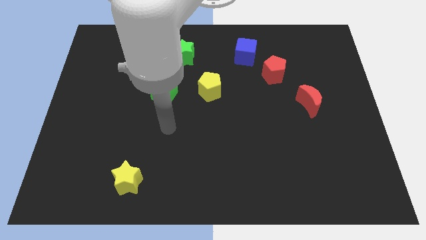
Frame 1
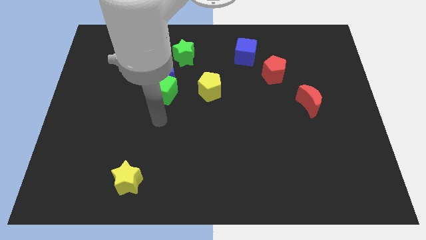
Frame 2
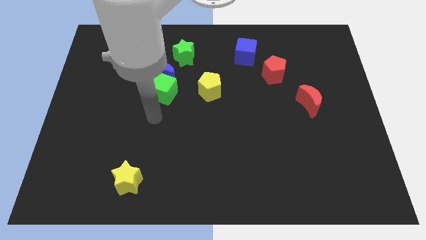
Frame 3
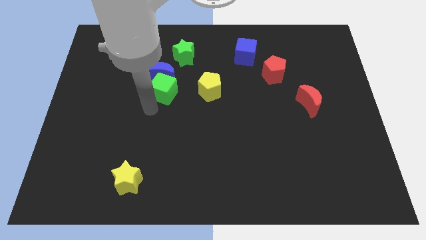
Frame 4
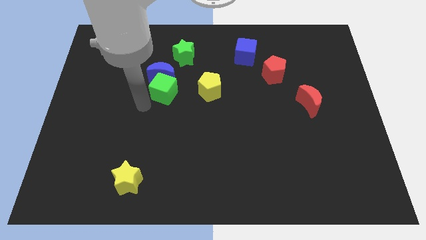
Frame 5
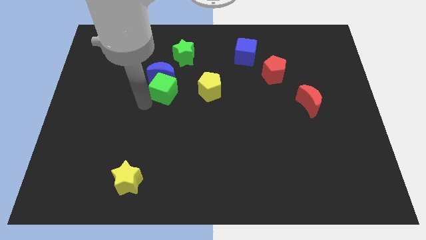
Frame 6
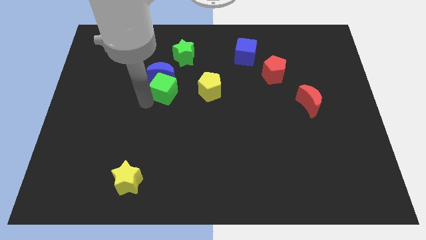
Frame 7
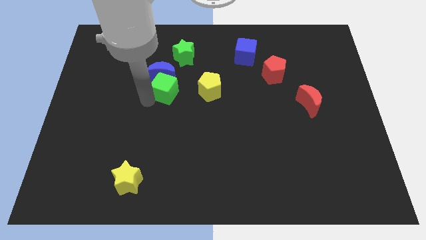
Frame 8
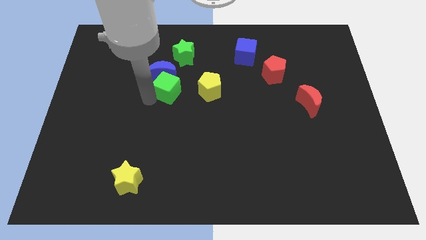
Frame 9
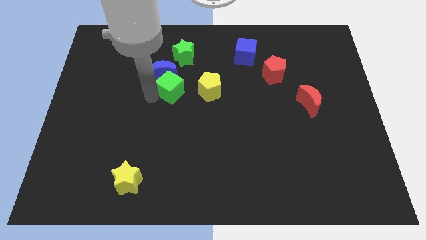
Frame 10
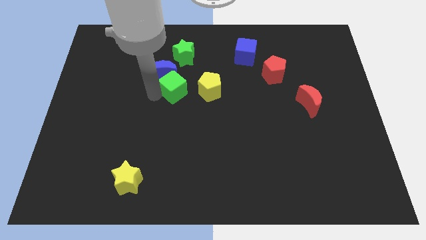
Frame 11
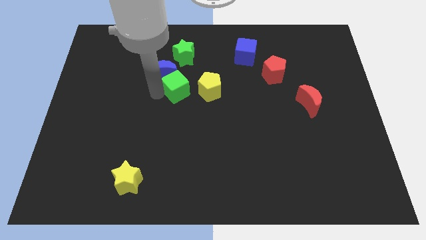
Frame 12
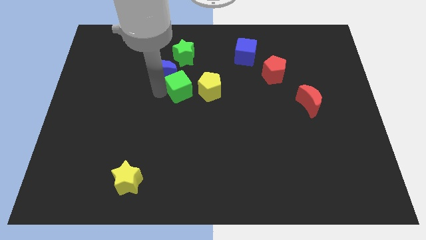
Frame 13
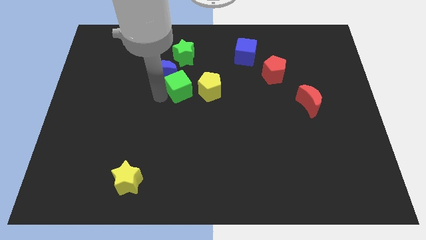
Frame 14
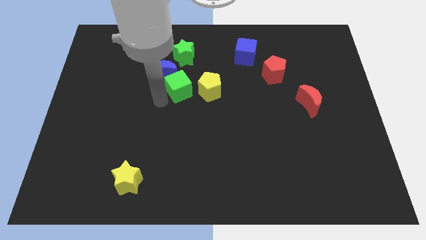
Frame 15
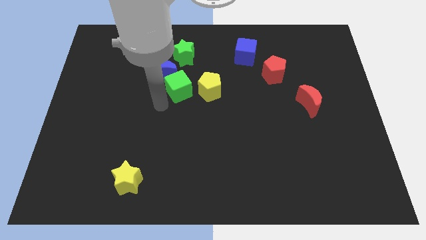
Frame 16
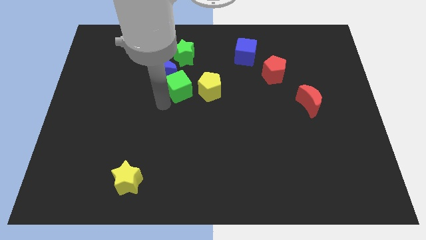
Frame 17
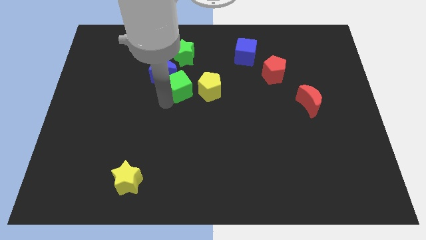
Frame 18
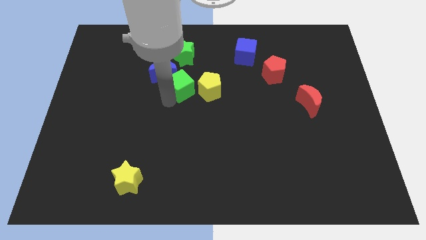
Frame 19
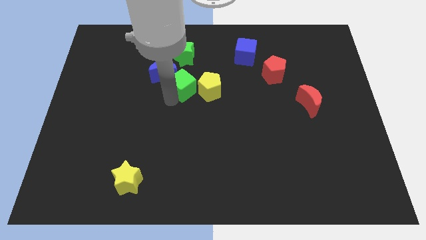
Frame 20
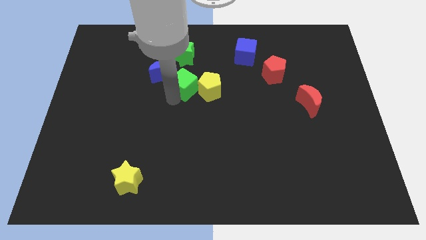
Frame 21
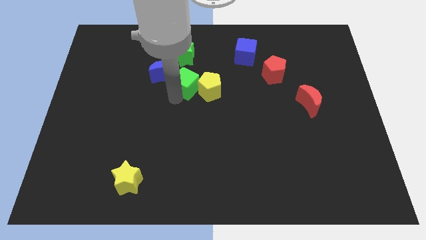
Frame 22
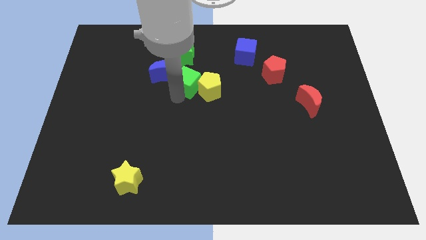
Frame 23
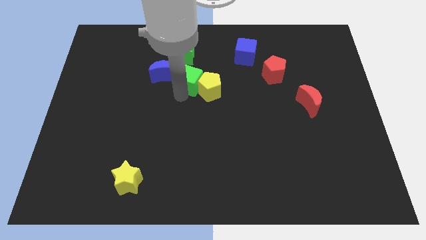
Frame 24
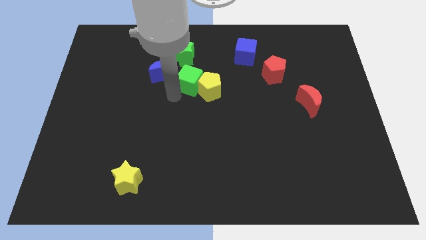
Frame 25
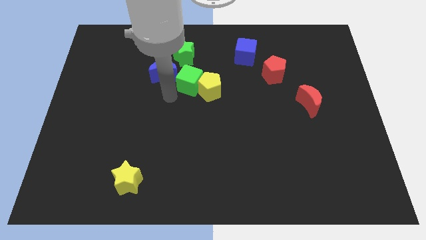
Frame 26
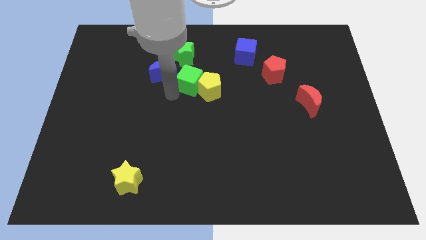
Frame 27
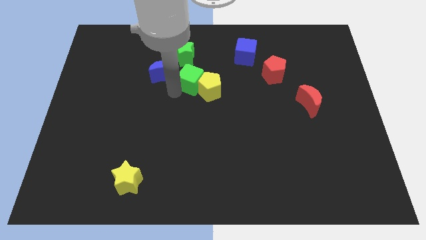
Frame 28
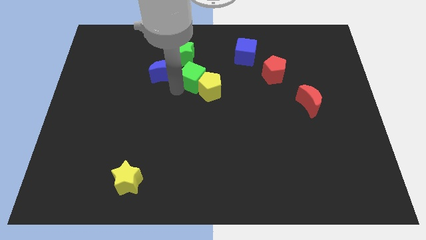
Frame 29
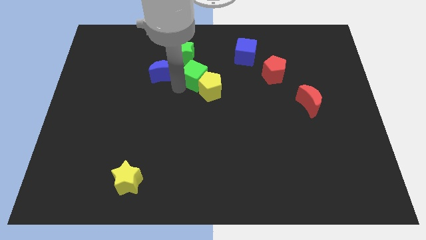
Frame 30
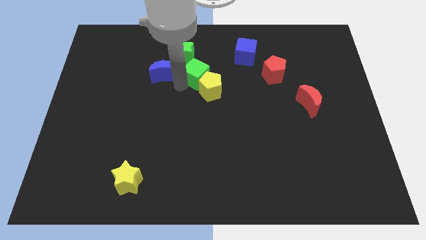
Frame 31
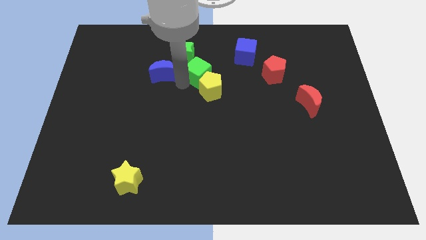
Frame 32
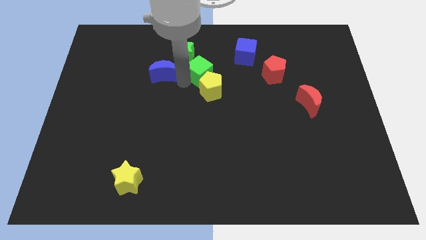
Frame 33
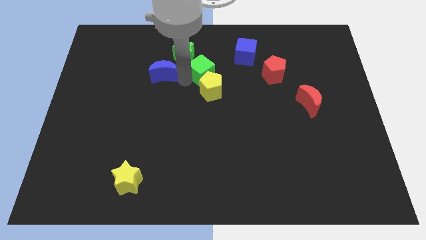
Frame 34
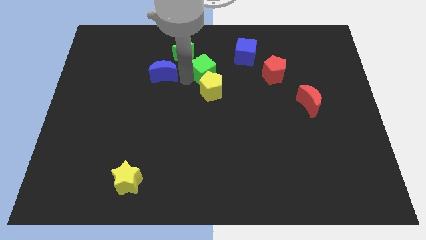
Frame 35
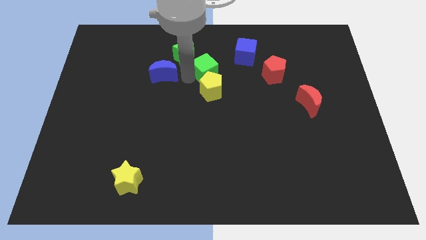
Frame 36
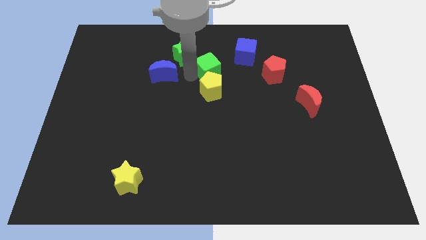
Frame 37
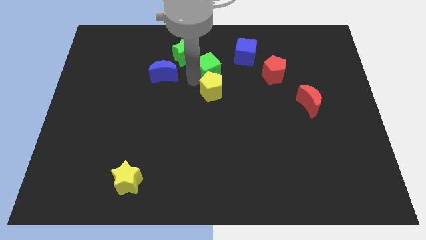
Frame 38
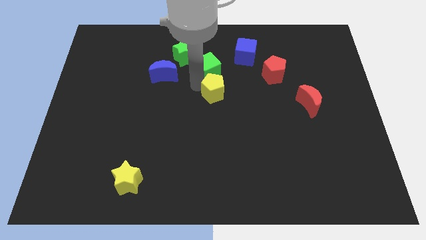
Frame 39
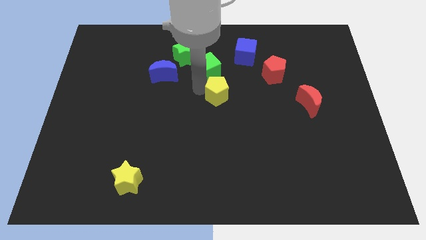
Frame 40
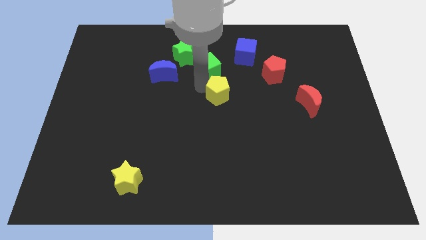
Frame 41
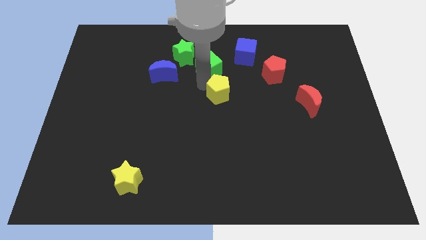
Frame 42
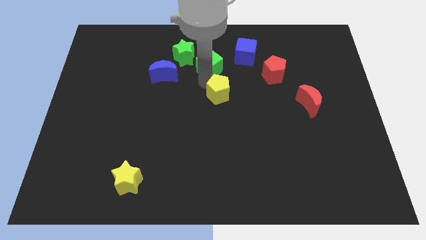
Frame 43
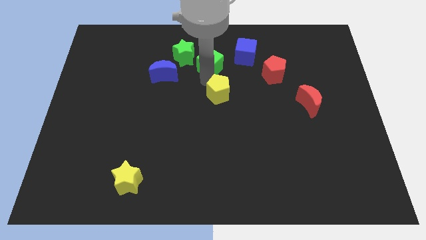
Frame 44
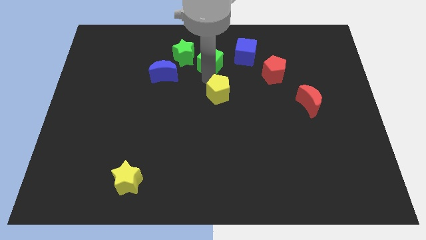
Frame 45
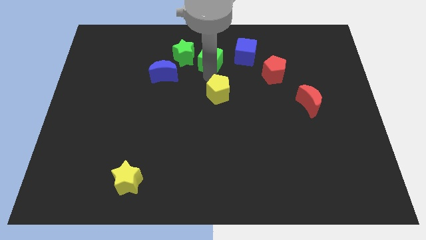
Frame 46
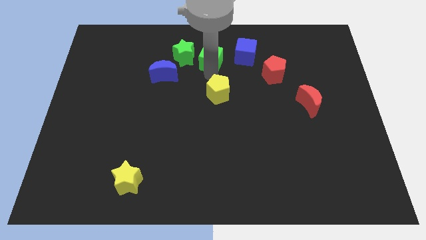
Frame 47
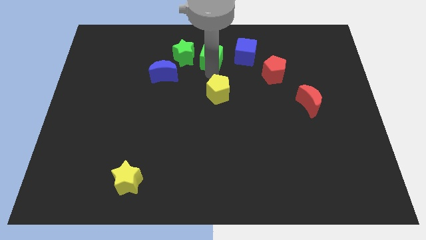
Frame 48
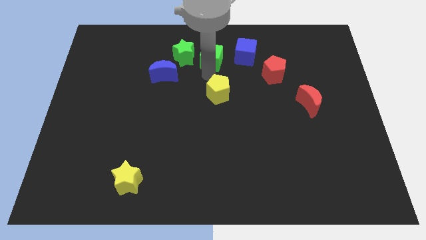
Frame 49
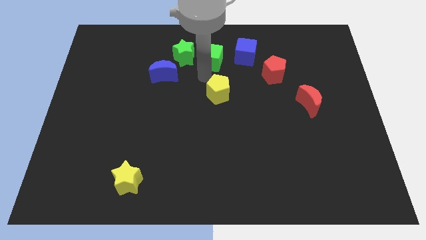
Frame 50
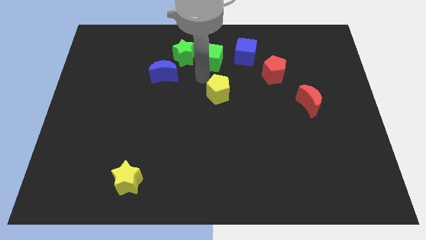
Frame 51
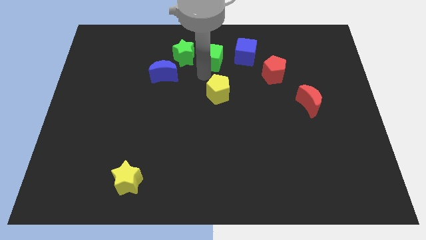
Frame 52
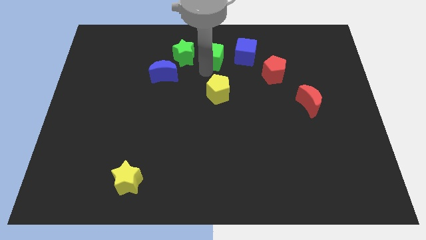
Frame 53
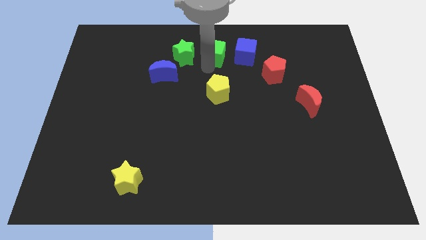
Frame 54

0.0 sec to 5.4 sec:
put the green cube to the top side

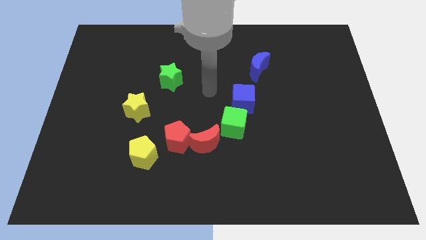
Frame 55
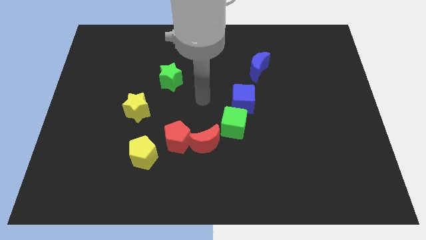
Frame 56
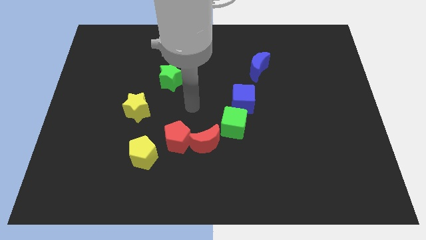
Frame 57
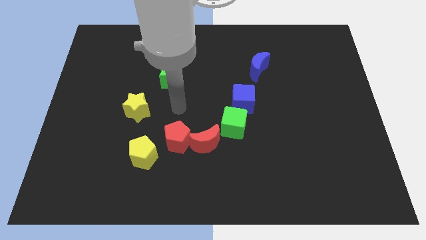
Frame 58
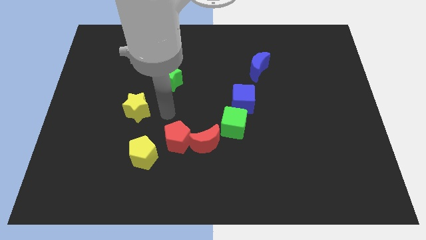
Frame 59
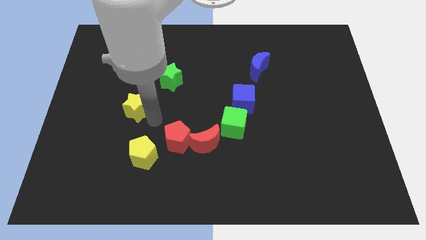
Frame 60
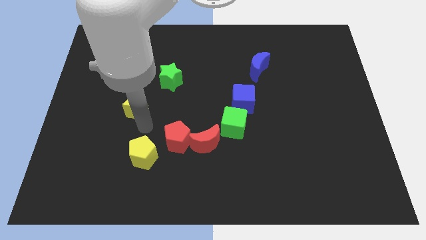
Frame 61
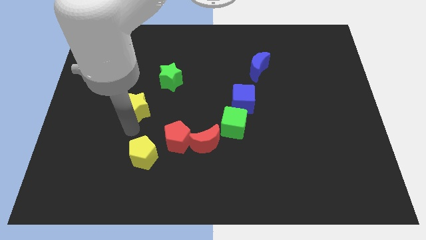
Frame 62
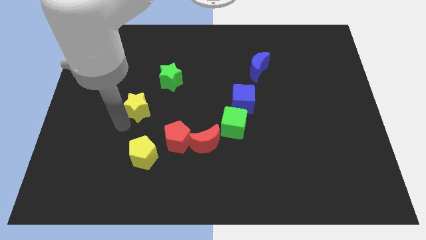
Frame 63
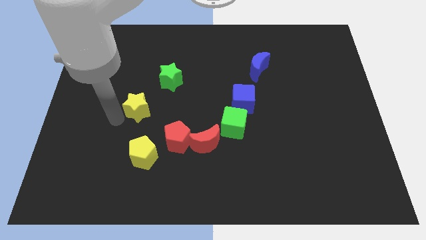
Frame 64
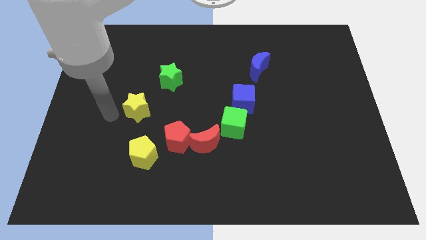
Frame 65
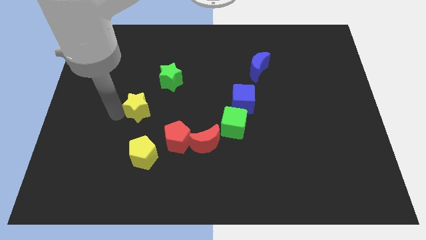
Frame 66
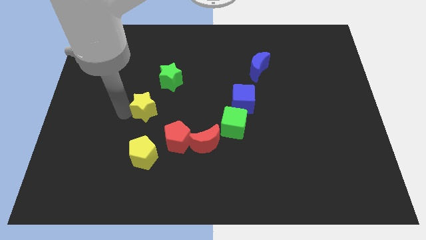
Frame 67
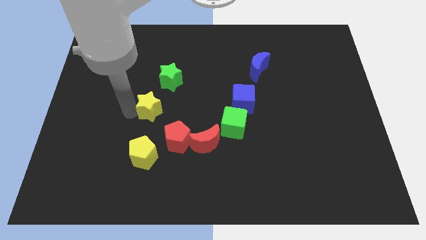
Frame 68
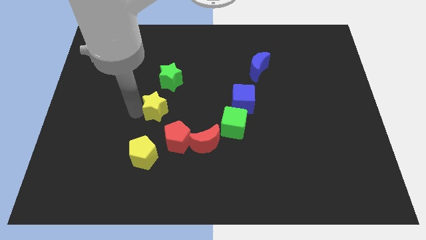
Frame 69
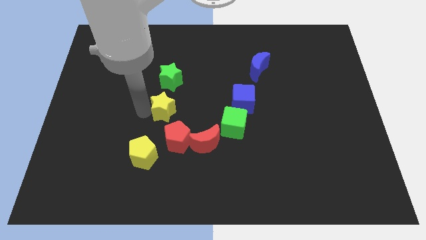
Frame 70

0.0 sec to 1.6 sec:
push the yellow star to the middle

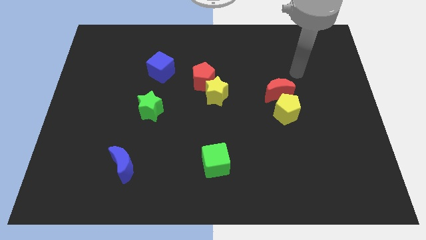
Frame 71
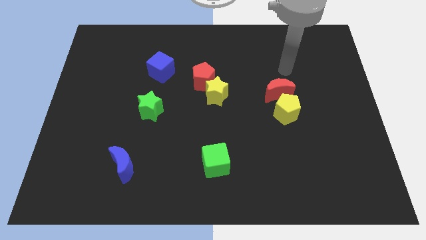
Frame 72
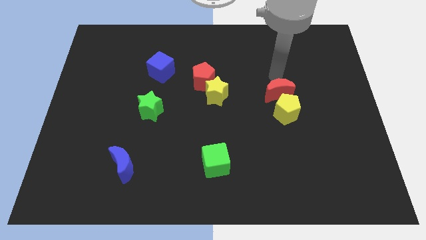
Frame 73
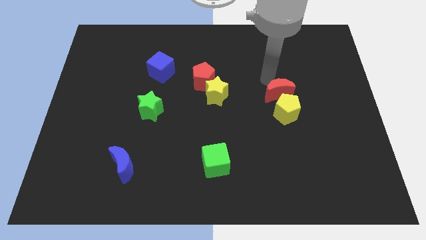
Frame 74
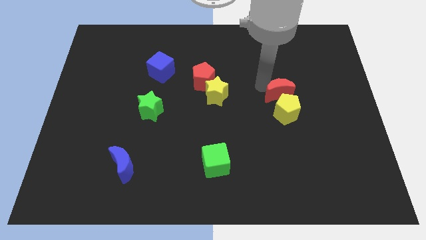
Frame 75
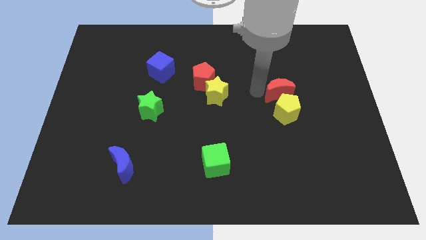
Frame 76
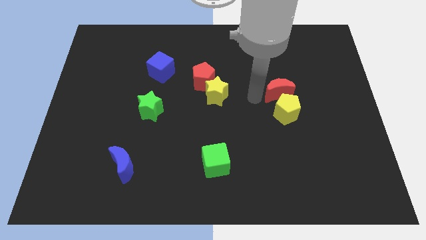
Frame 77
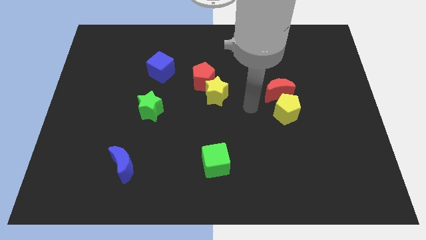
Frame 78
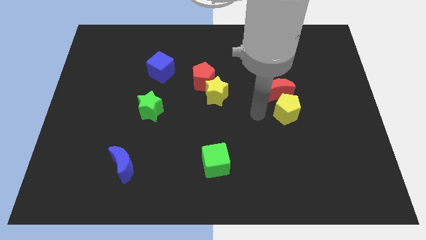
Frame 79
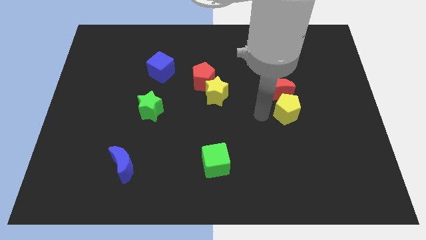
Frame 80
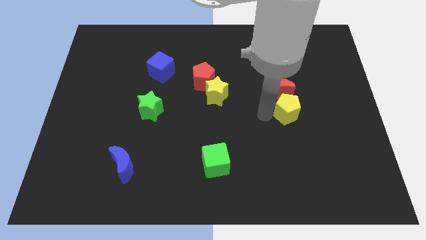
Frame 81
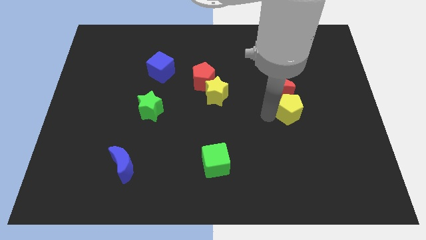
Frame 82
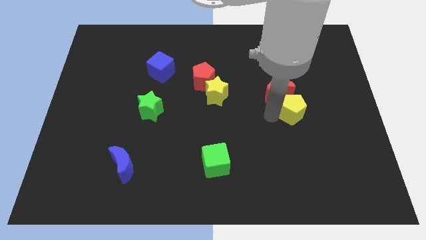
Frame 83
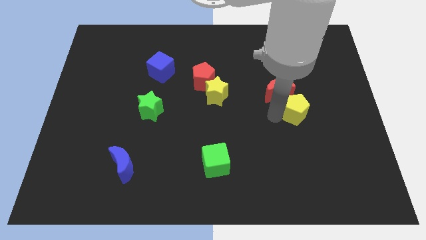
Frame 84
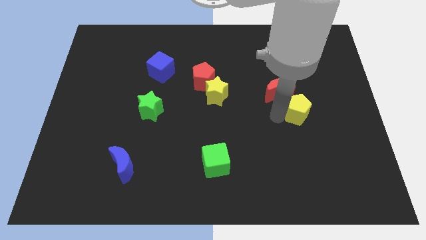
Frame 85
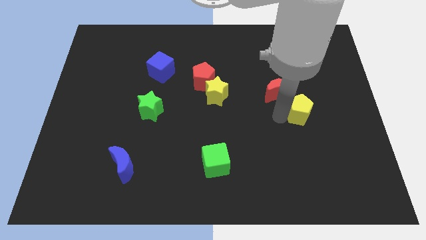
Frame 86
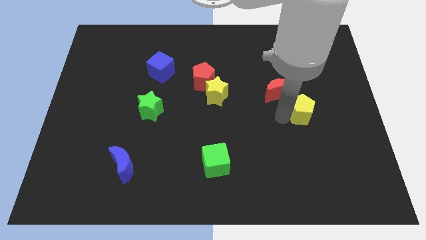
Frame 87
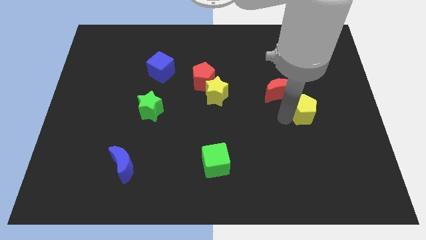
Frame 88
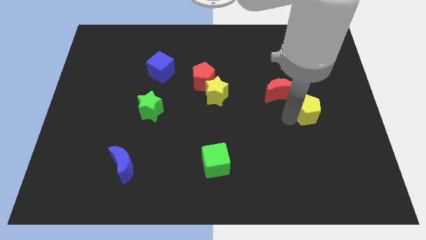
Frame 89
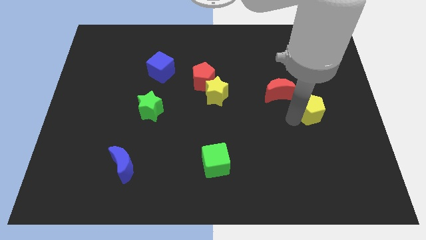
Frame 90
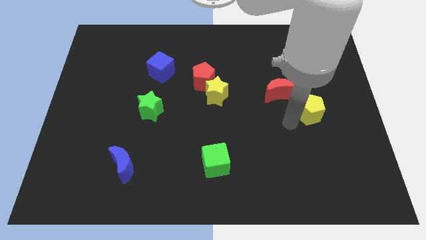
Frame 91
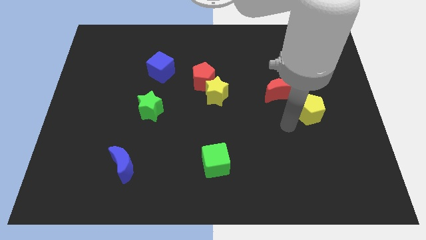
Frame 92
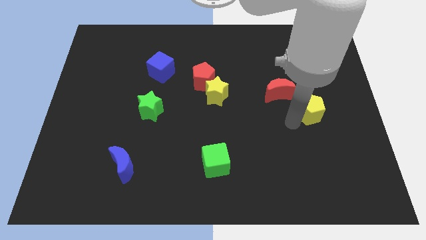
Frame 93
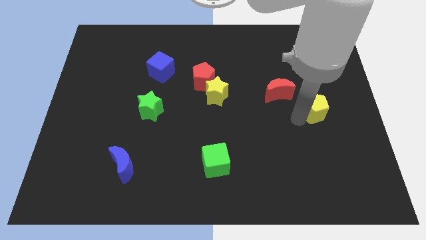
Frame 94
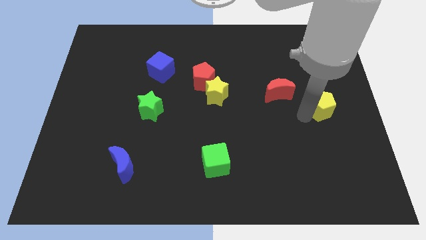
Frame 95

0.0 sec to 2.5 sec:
move the yellow pentagon to the right side
